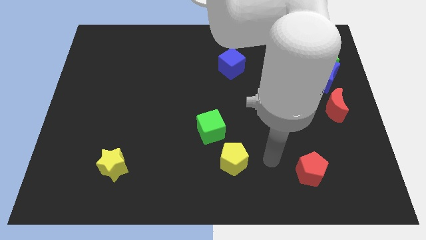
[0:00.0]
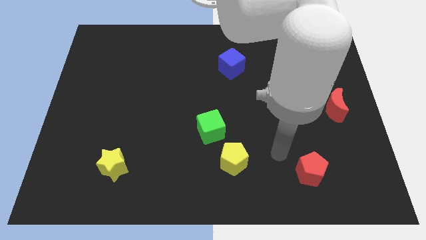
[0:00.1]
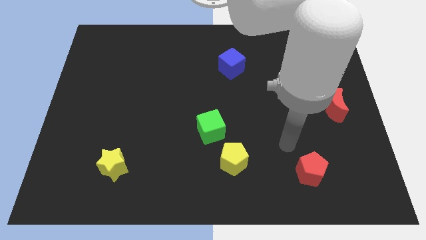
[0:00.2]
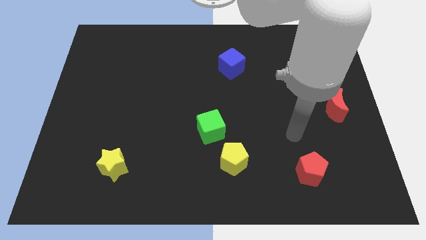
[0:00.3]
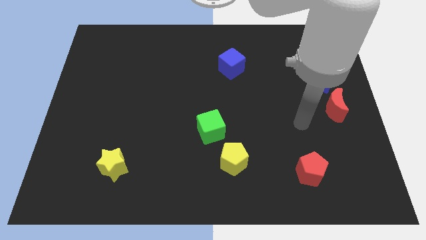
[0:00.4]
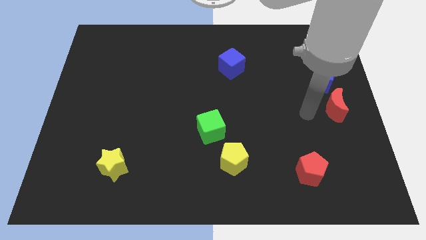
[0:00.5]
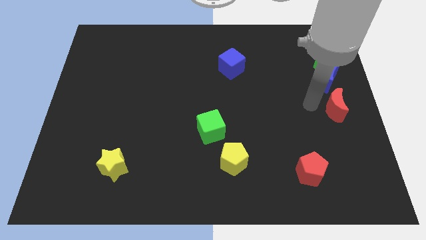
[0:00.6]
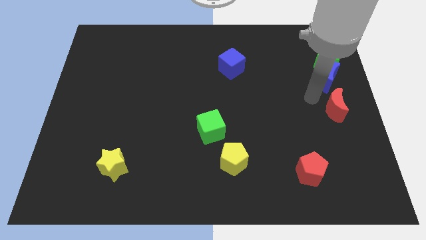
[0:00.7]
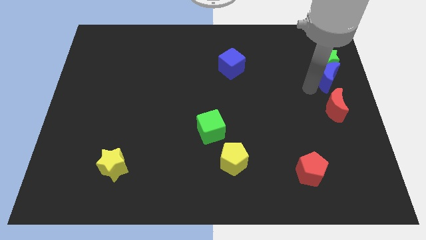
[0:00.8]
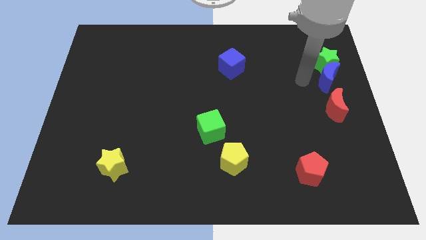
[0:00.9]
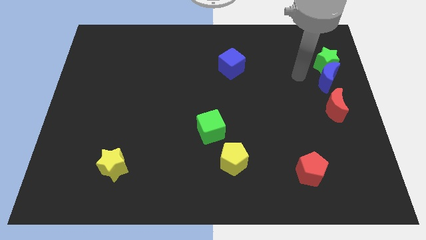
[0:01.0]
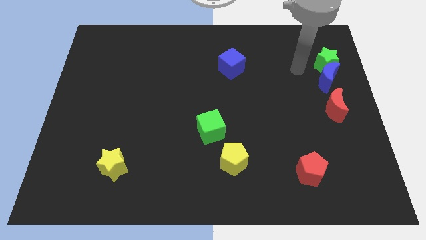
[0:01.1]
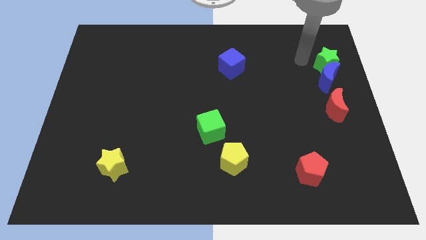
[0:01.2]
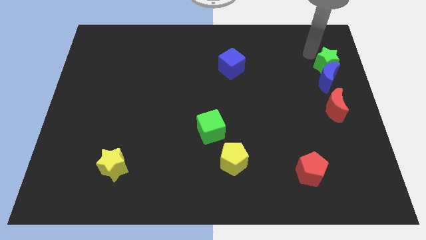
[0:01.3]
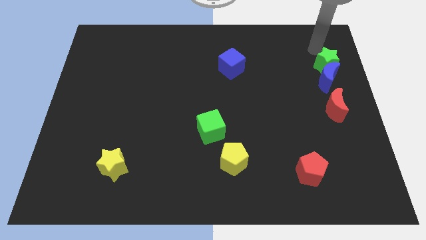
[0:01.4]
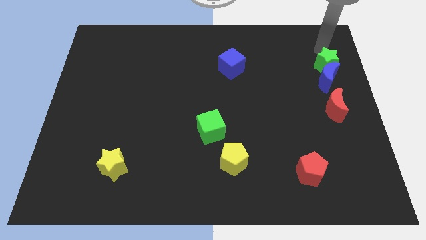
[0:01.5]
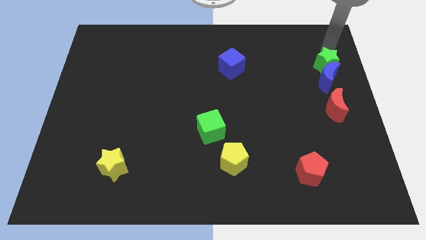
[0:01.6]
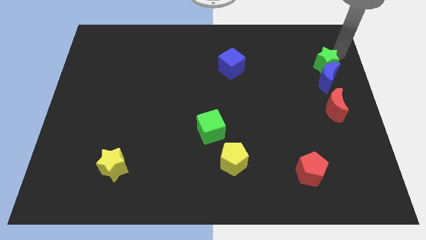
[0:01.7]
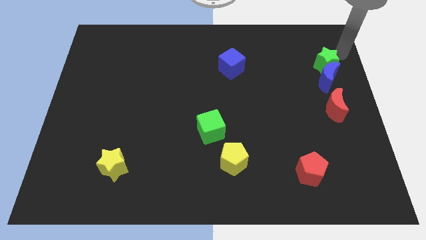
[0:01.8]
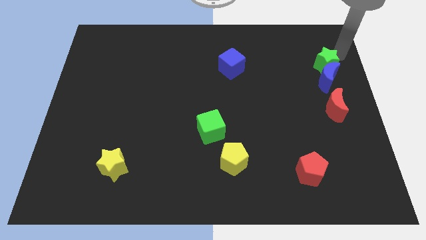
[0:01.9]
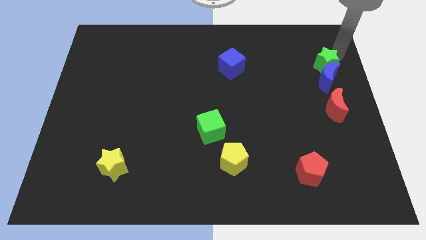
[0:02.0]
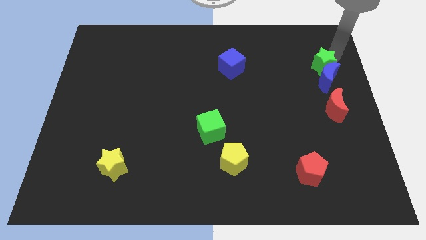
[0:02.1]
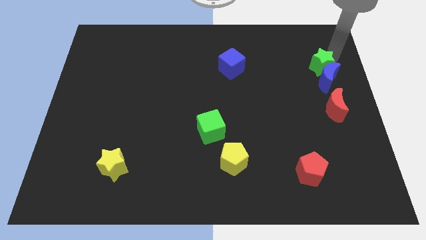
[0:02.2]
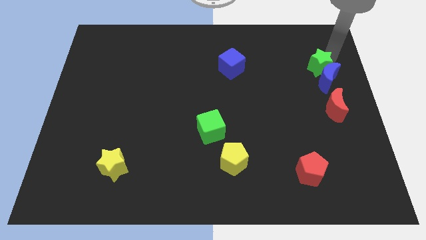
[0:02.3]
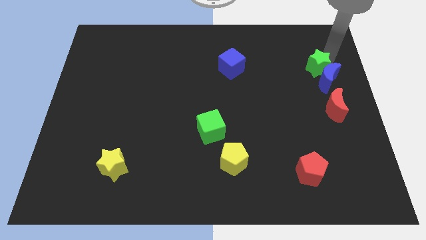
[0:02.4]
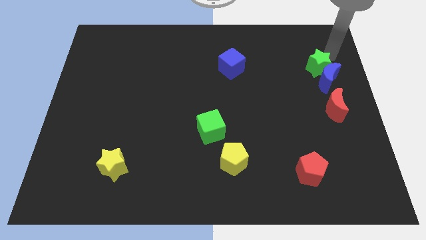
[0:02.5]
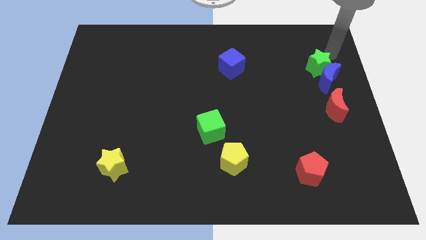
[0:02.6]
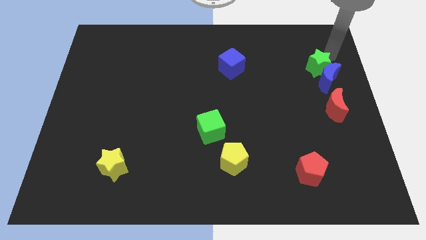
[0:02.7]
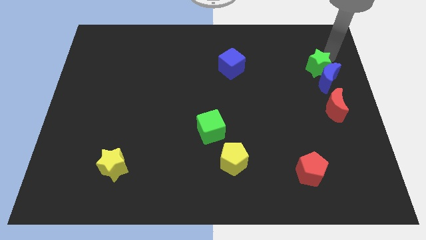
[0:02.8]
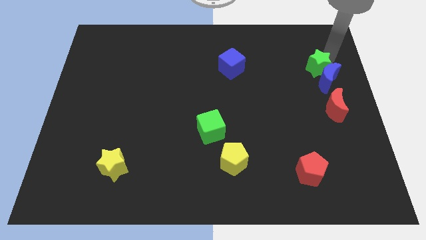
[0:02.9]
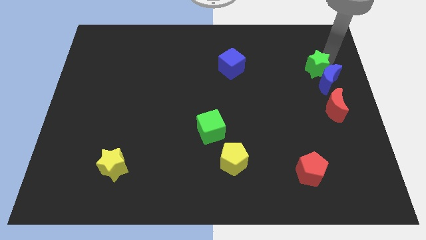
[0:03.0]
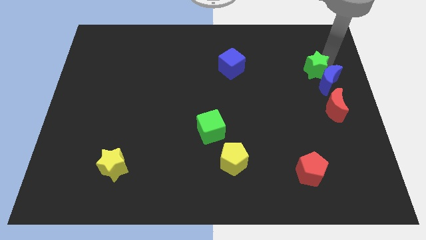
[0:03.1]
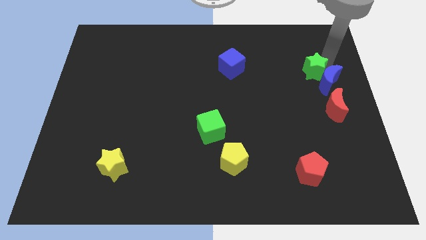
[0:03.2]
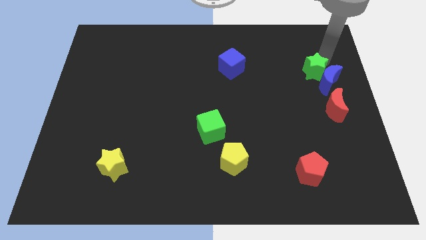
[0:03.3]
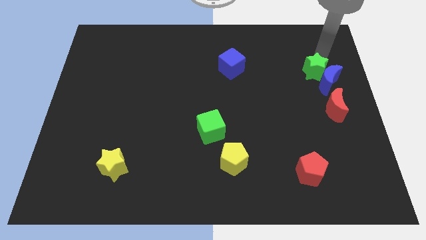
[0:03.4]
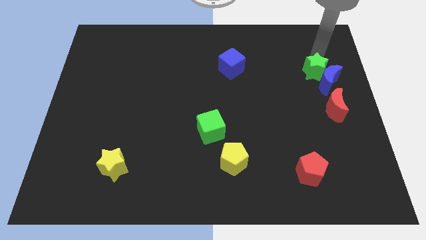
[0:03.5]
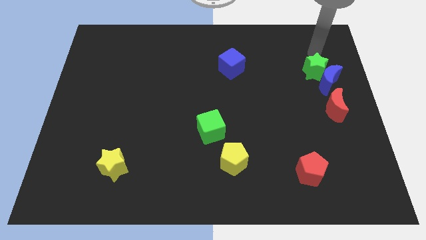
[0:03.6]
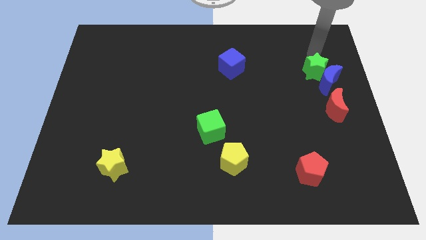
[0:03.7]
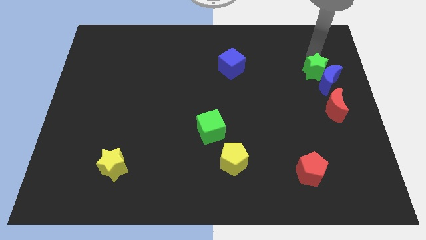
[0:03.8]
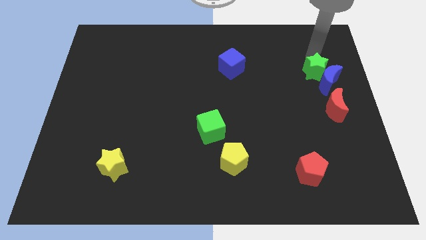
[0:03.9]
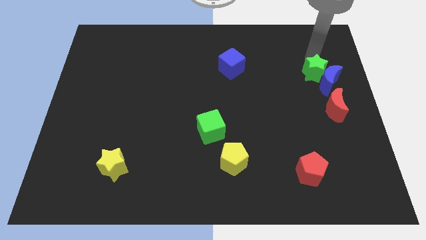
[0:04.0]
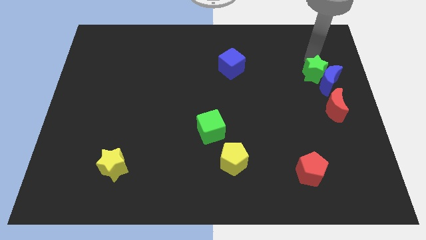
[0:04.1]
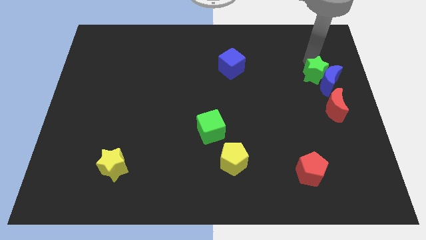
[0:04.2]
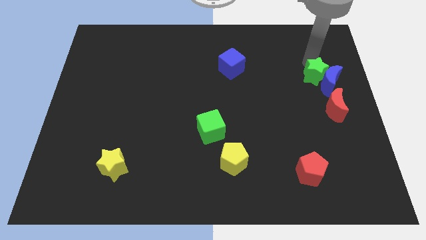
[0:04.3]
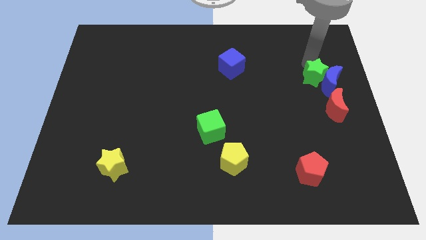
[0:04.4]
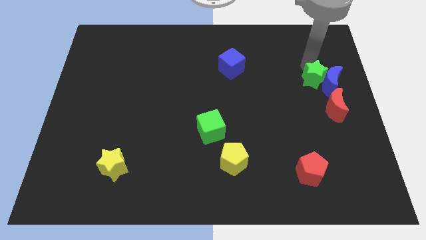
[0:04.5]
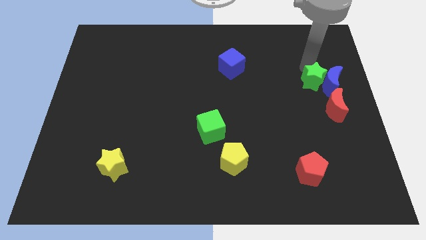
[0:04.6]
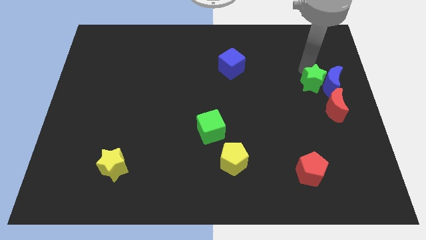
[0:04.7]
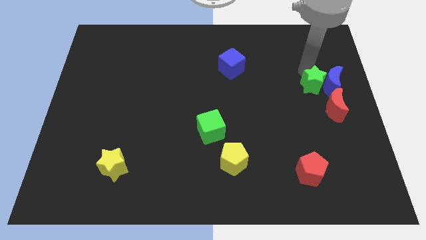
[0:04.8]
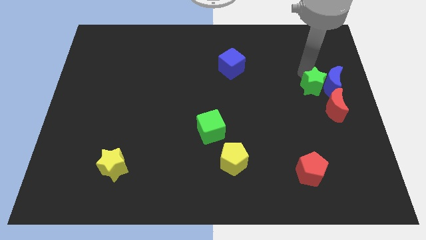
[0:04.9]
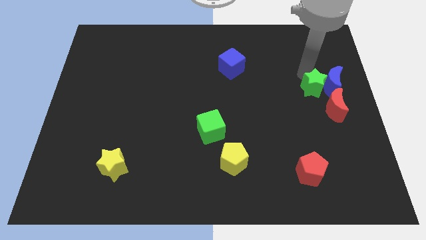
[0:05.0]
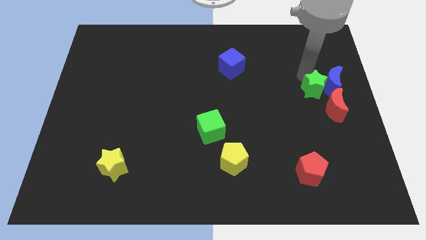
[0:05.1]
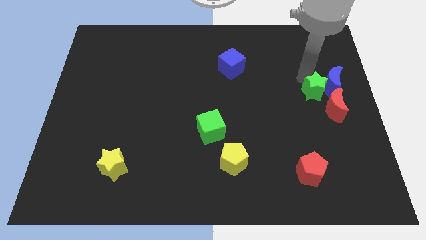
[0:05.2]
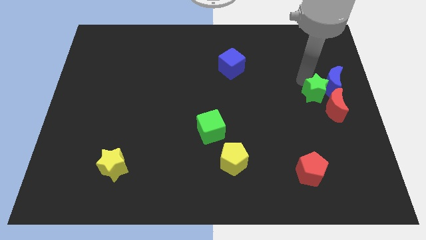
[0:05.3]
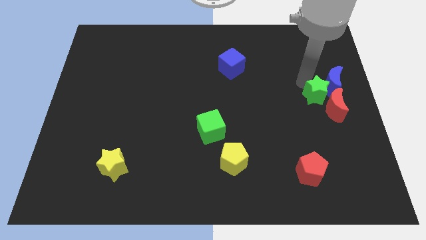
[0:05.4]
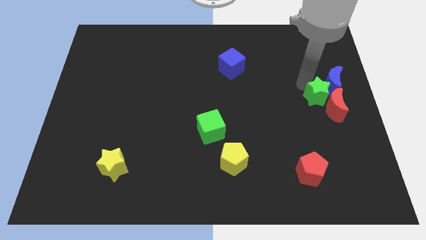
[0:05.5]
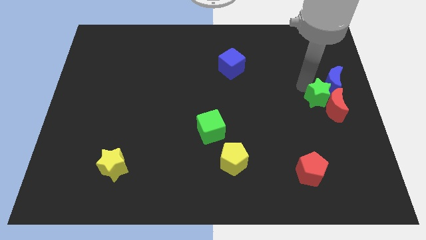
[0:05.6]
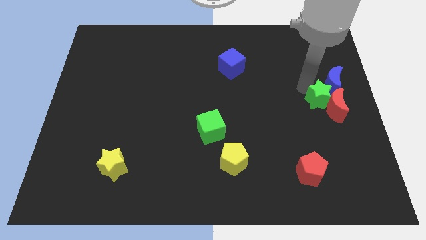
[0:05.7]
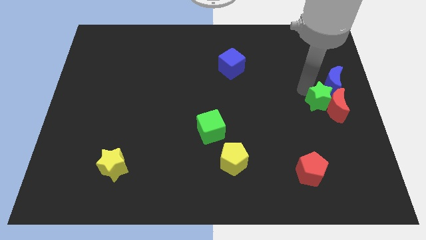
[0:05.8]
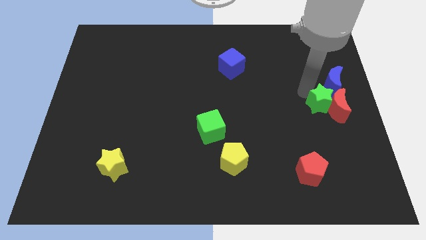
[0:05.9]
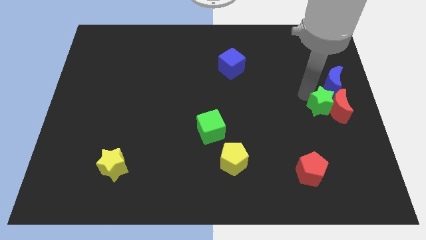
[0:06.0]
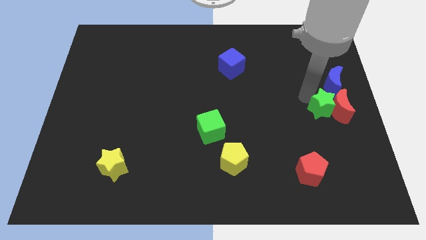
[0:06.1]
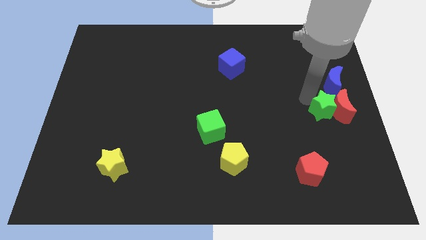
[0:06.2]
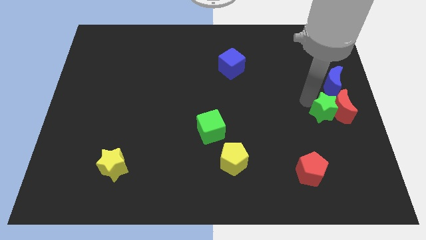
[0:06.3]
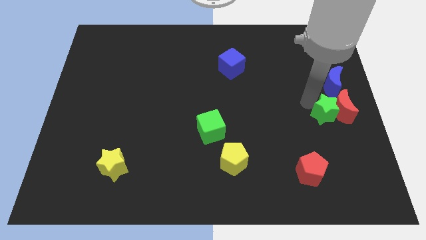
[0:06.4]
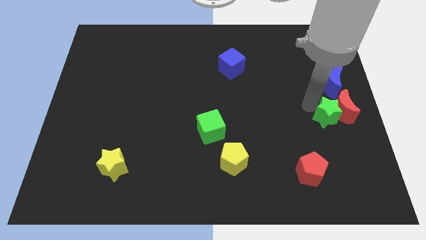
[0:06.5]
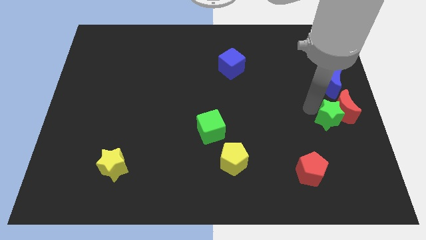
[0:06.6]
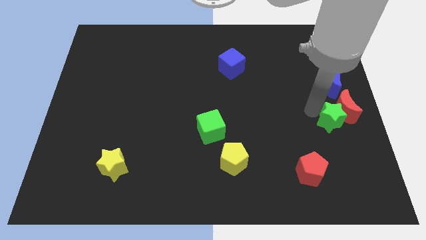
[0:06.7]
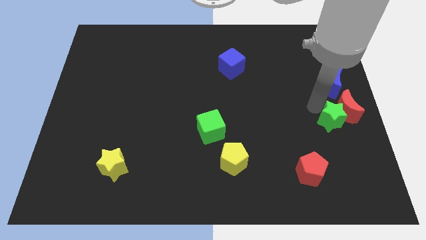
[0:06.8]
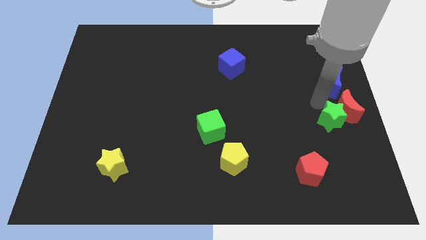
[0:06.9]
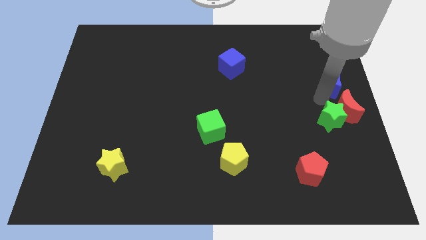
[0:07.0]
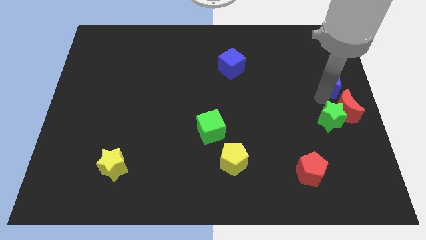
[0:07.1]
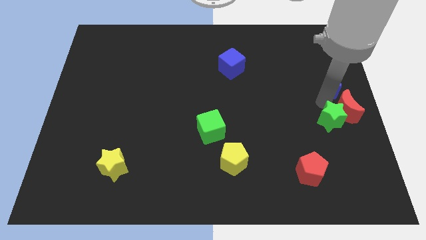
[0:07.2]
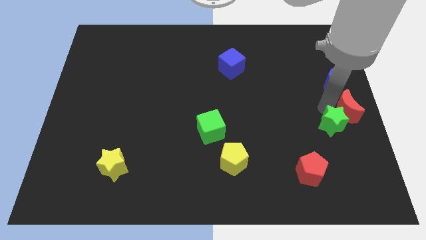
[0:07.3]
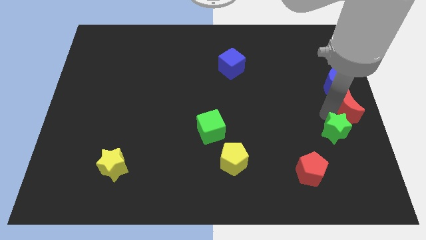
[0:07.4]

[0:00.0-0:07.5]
move the green star down

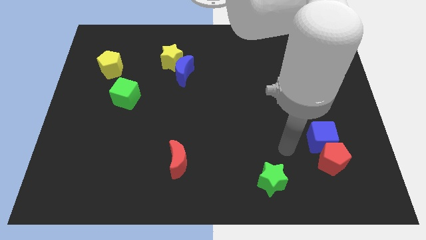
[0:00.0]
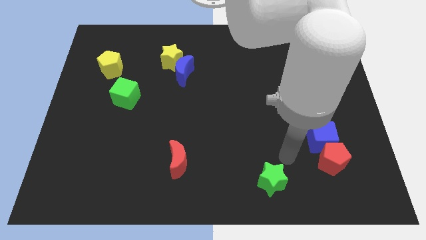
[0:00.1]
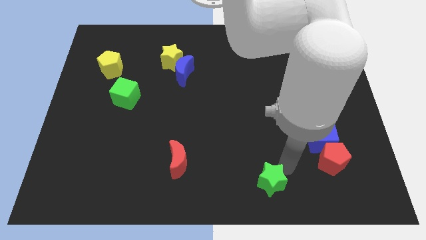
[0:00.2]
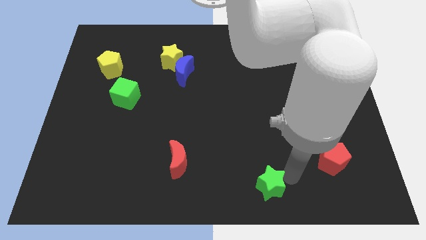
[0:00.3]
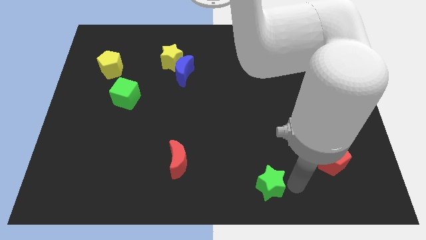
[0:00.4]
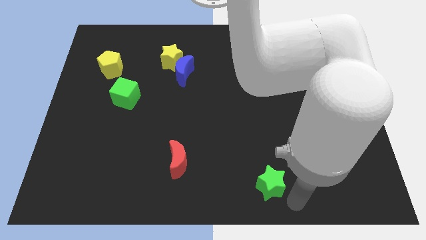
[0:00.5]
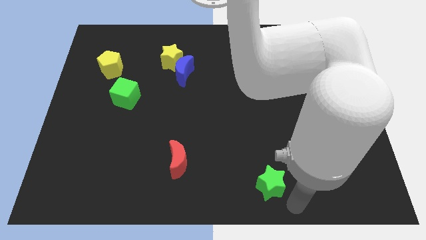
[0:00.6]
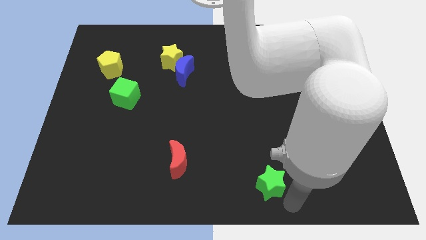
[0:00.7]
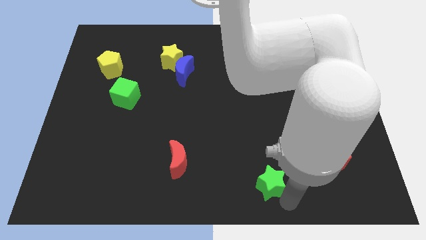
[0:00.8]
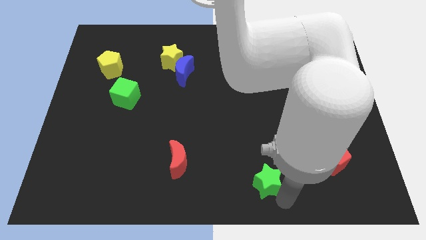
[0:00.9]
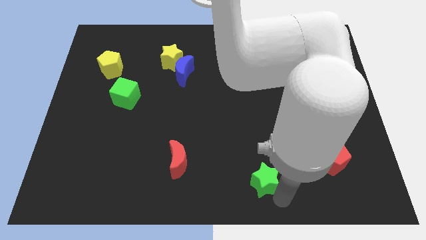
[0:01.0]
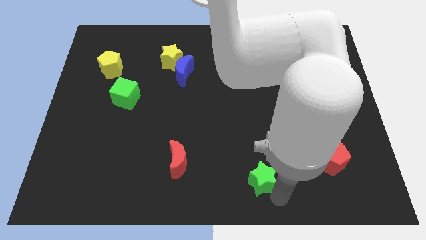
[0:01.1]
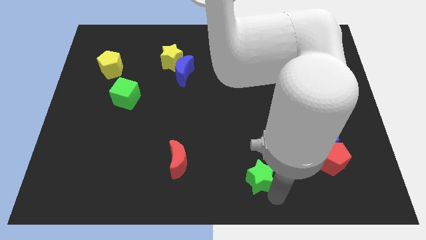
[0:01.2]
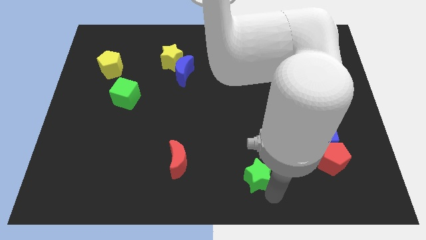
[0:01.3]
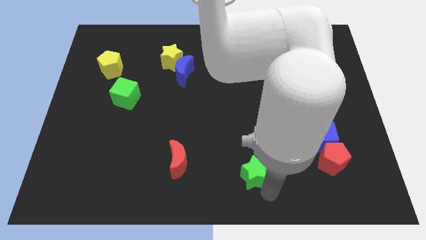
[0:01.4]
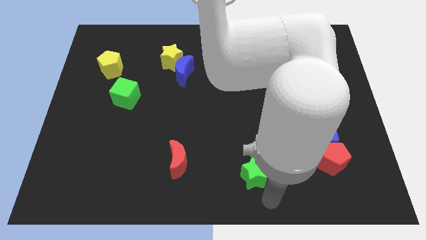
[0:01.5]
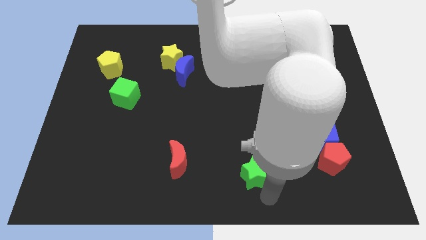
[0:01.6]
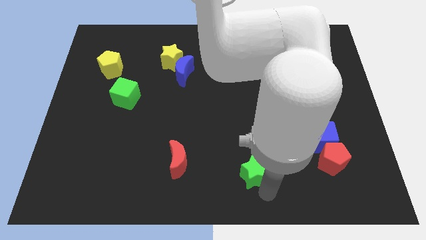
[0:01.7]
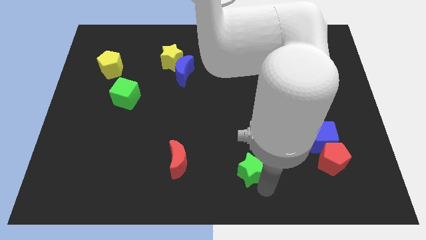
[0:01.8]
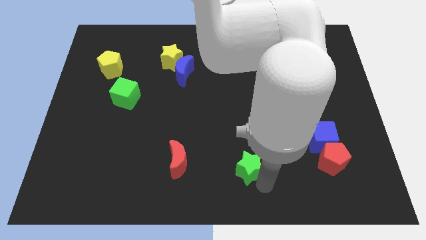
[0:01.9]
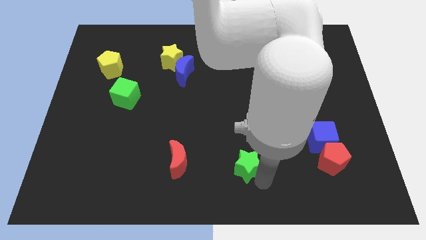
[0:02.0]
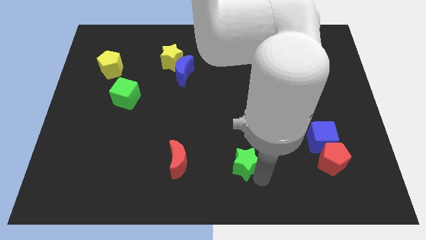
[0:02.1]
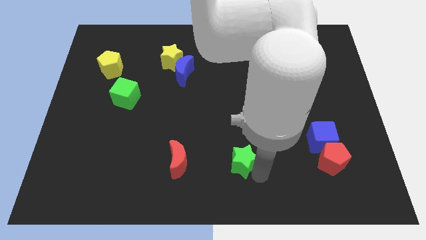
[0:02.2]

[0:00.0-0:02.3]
slide the green star somewhat up and then to the left
